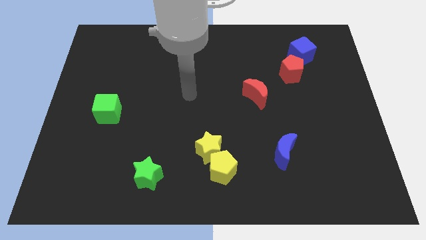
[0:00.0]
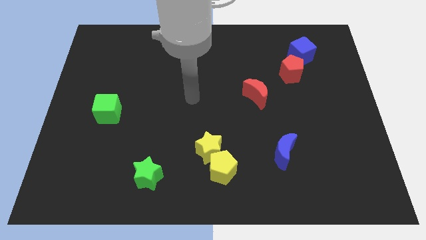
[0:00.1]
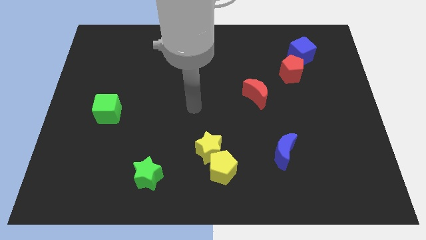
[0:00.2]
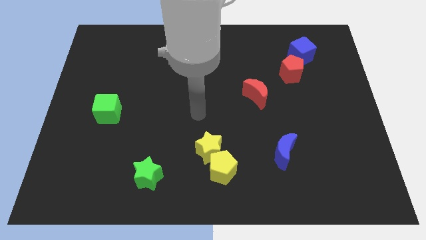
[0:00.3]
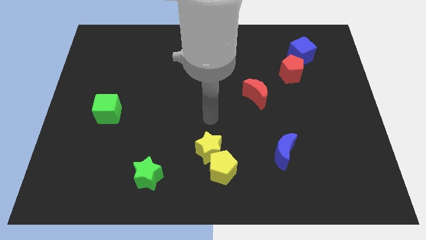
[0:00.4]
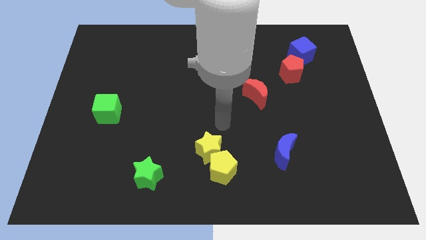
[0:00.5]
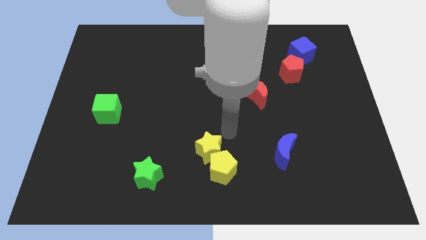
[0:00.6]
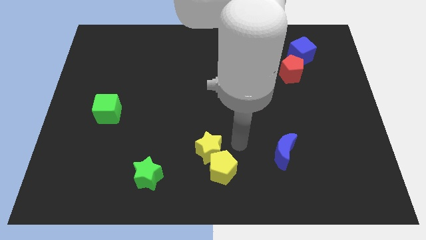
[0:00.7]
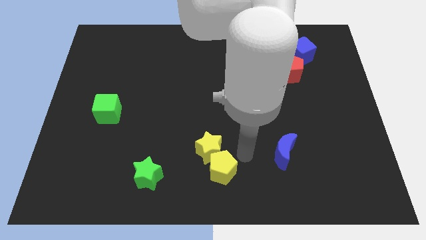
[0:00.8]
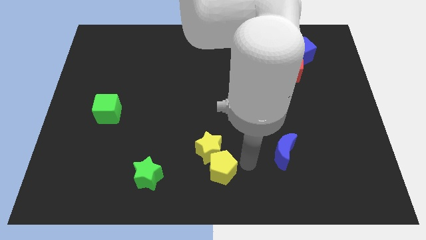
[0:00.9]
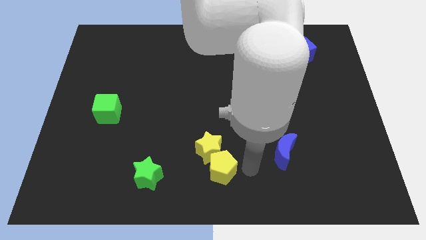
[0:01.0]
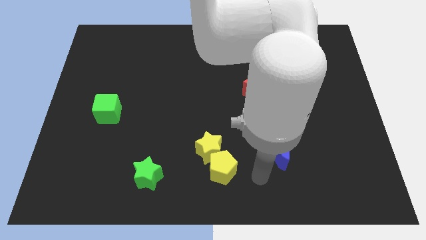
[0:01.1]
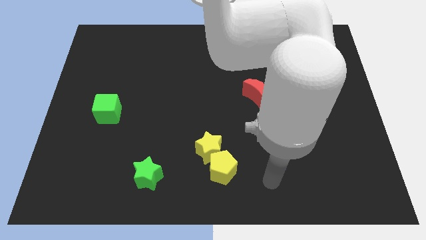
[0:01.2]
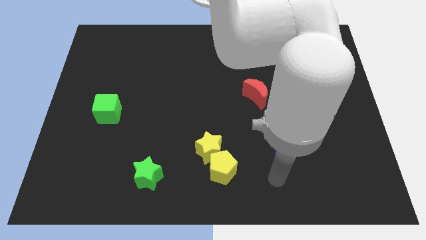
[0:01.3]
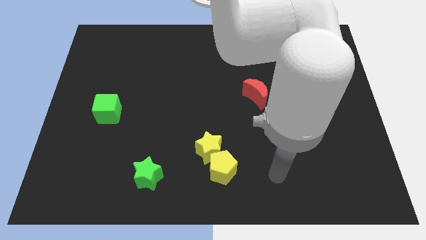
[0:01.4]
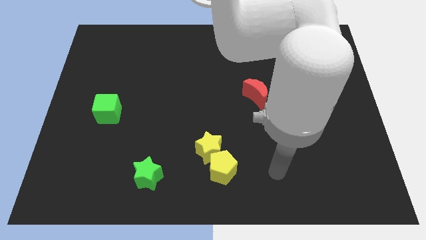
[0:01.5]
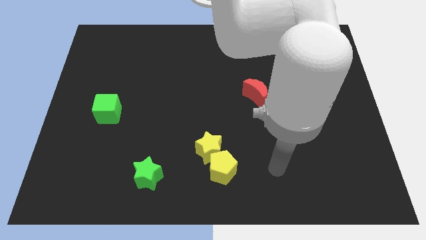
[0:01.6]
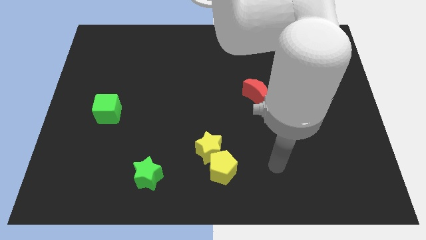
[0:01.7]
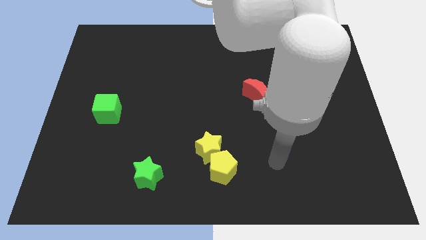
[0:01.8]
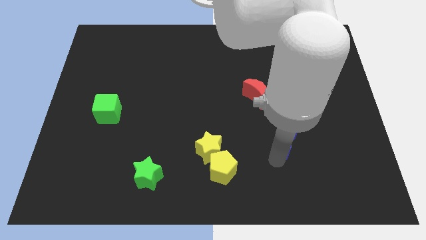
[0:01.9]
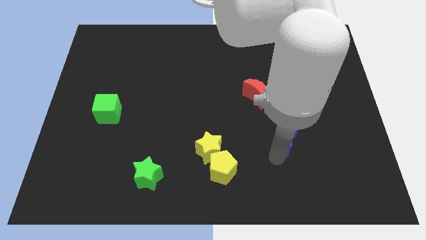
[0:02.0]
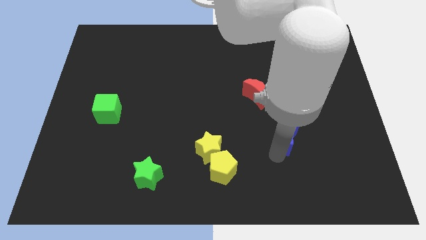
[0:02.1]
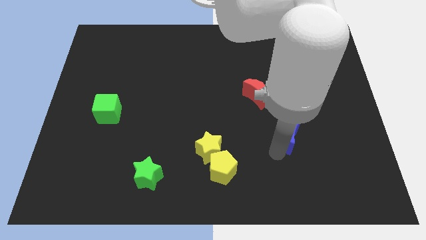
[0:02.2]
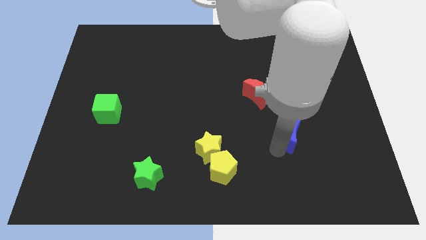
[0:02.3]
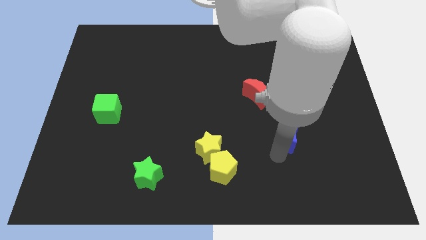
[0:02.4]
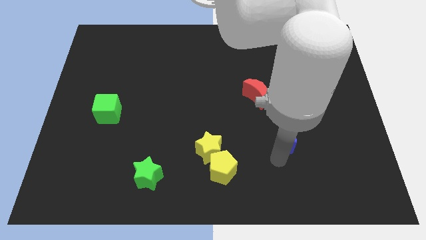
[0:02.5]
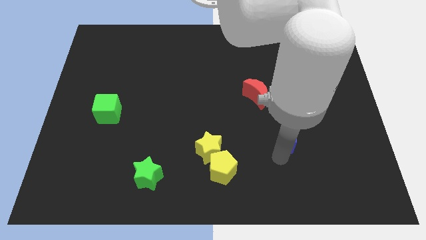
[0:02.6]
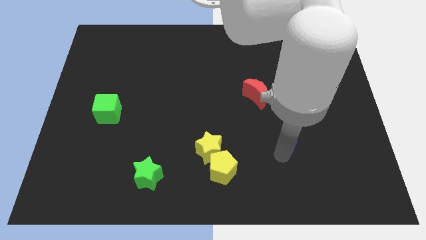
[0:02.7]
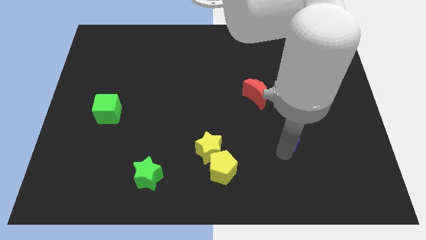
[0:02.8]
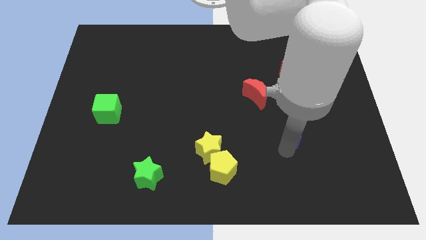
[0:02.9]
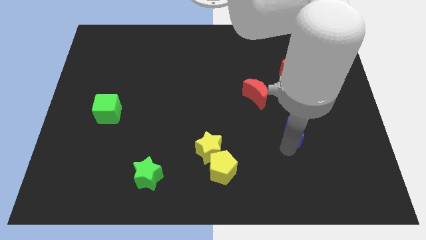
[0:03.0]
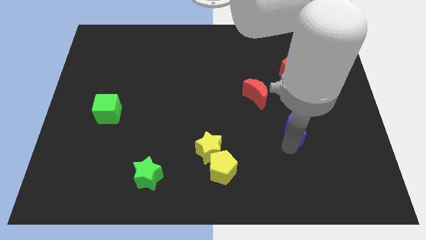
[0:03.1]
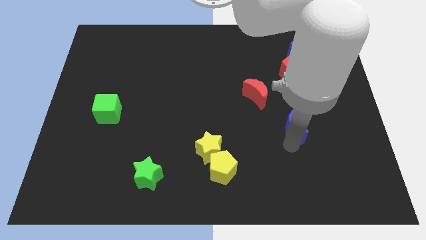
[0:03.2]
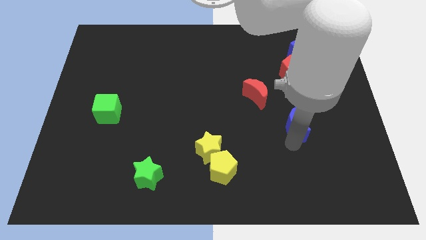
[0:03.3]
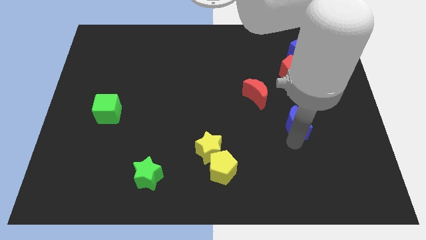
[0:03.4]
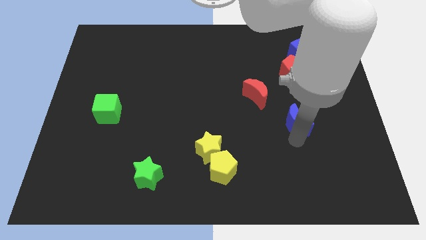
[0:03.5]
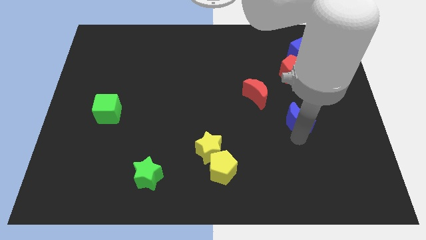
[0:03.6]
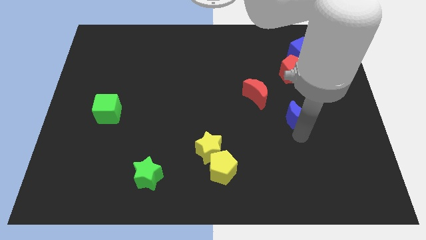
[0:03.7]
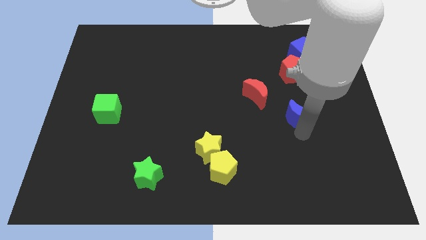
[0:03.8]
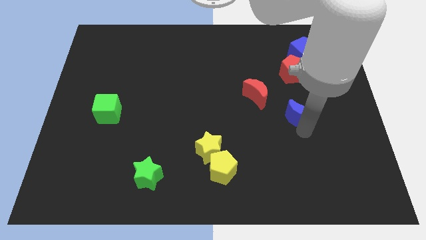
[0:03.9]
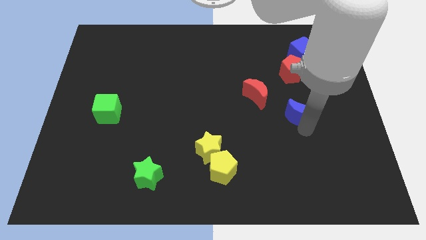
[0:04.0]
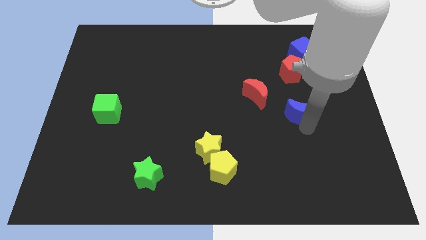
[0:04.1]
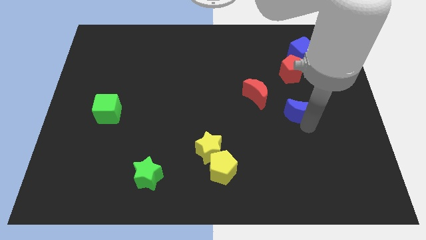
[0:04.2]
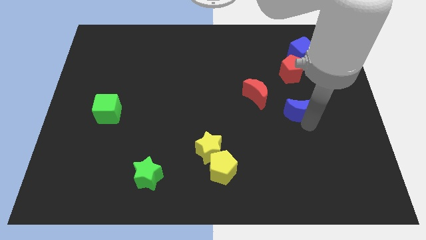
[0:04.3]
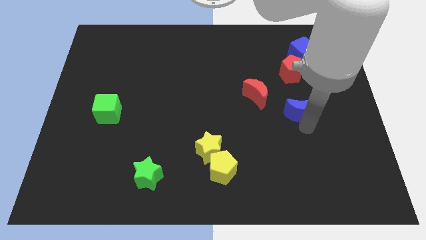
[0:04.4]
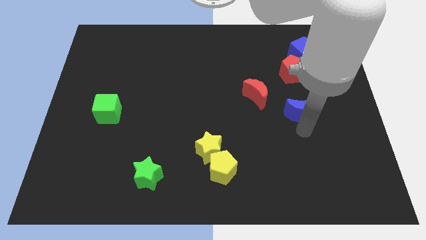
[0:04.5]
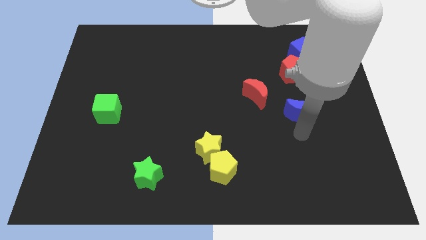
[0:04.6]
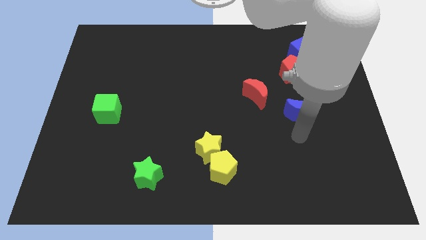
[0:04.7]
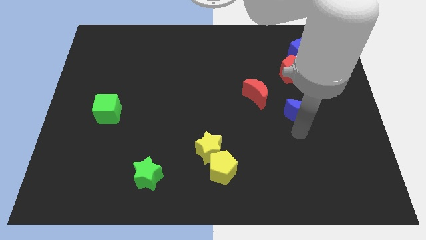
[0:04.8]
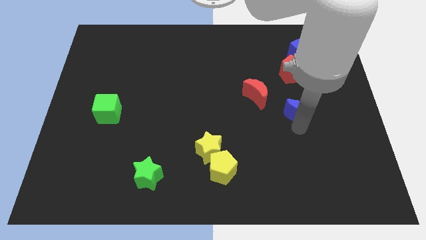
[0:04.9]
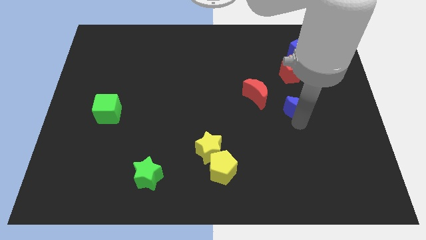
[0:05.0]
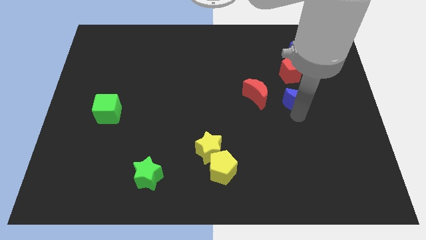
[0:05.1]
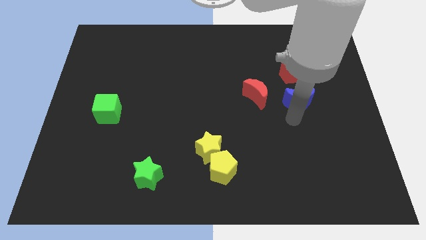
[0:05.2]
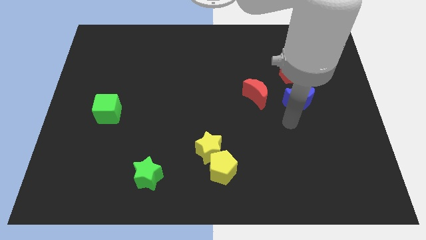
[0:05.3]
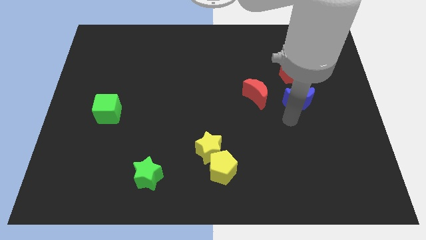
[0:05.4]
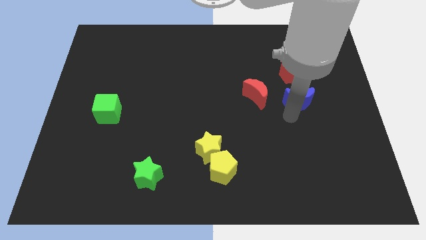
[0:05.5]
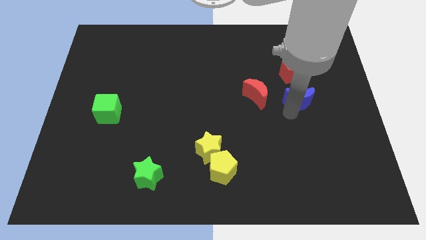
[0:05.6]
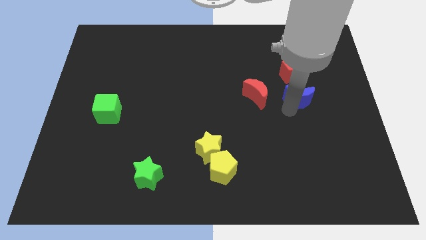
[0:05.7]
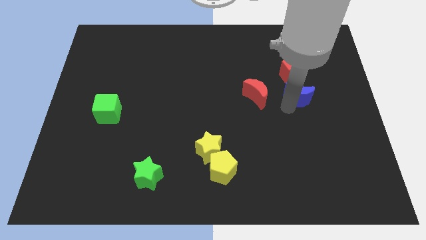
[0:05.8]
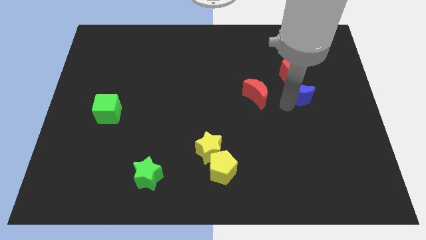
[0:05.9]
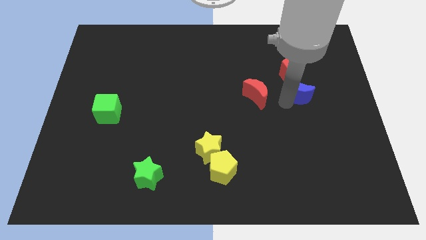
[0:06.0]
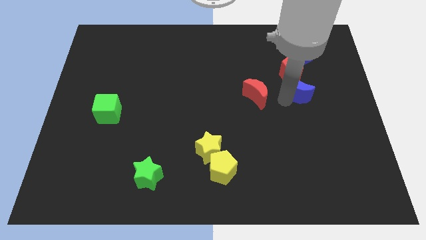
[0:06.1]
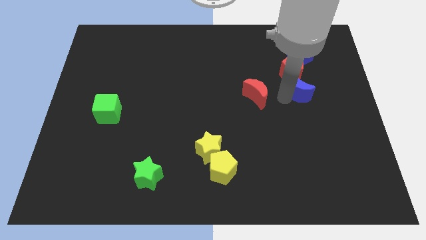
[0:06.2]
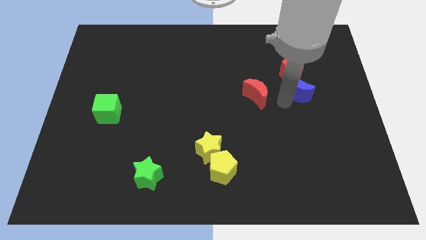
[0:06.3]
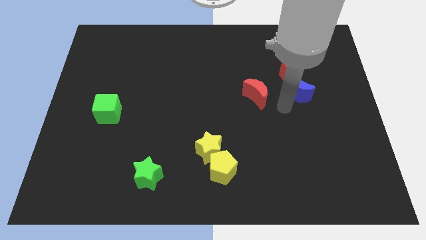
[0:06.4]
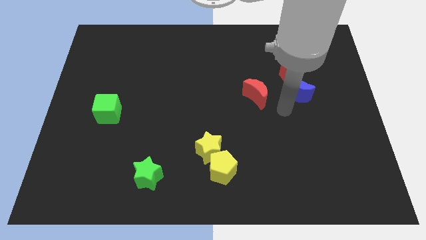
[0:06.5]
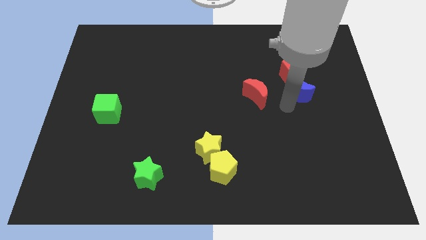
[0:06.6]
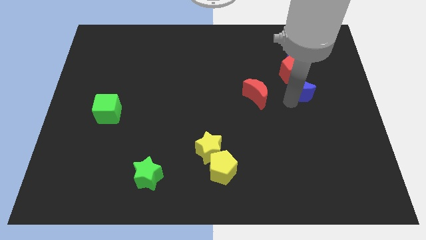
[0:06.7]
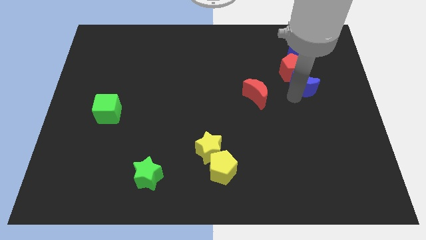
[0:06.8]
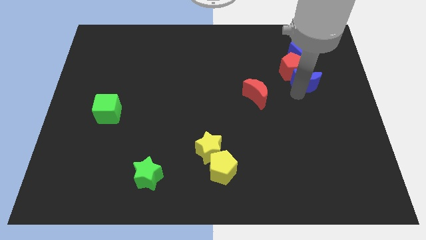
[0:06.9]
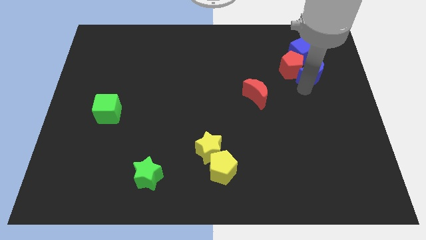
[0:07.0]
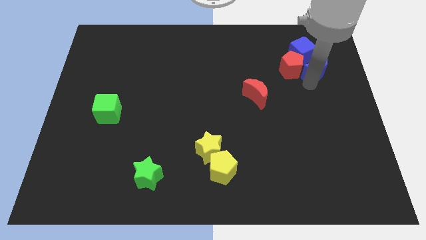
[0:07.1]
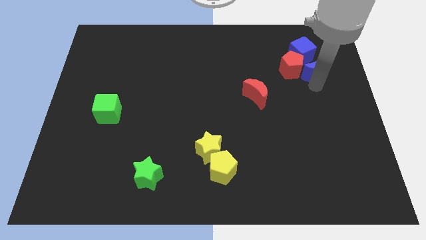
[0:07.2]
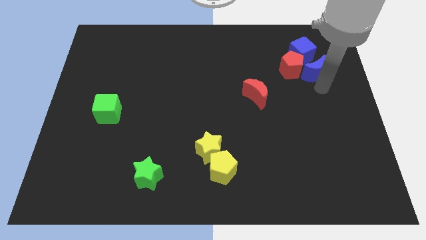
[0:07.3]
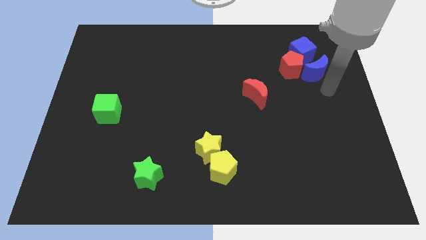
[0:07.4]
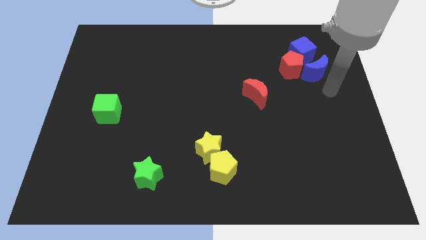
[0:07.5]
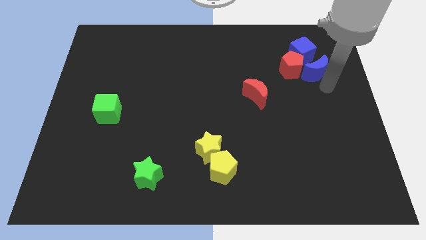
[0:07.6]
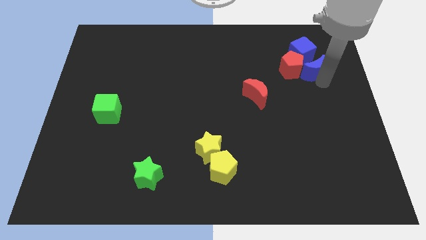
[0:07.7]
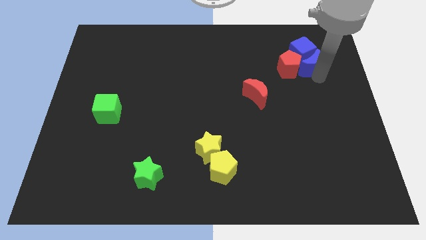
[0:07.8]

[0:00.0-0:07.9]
slide the blue moon towards the blue cube
